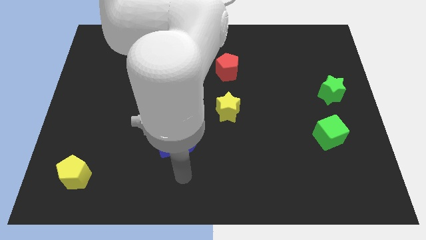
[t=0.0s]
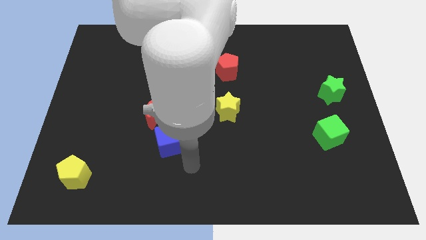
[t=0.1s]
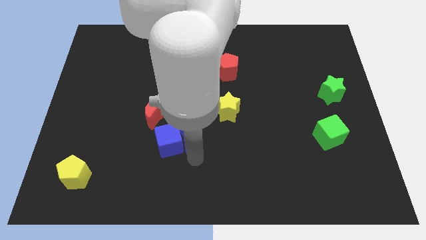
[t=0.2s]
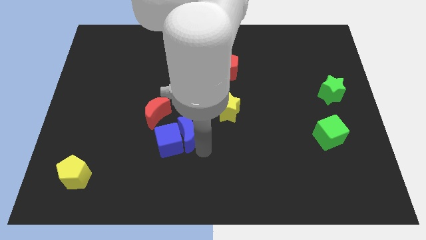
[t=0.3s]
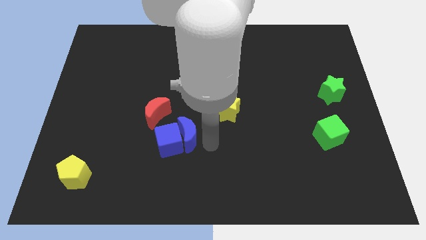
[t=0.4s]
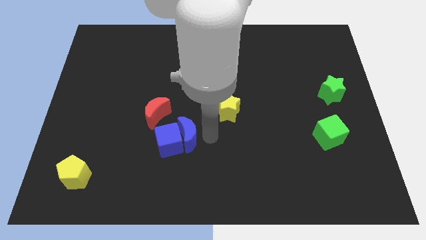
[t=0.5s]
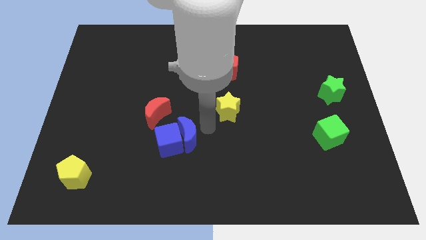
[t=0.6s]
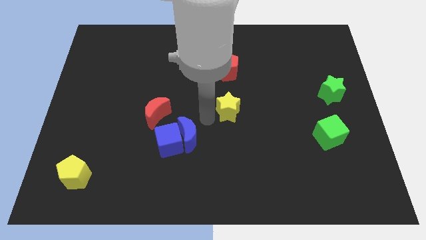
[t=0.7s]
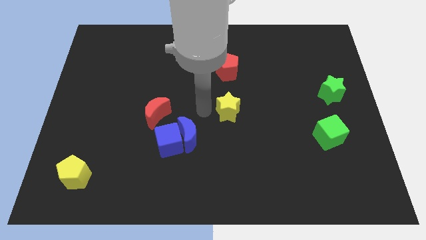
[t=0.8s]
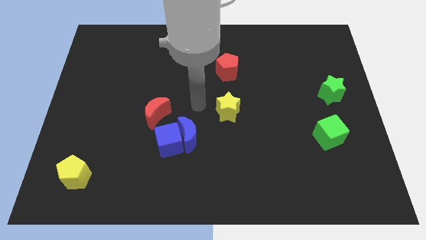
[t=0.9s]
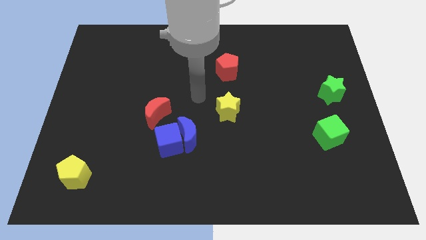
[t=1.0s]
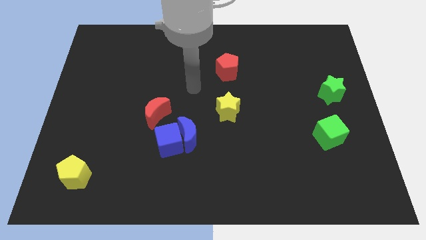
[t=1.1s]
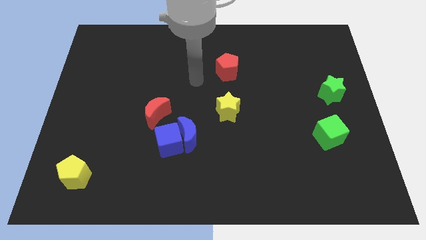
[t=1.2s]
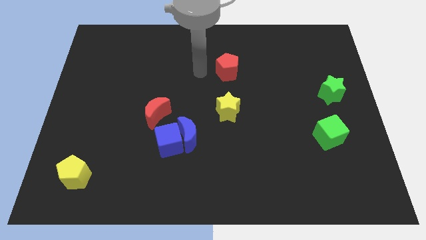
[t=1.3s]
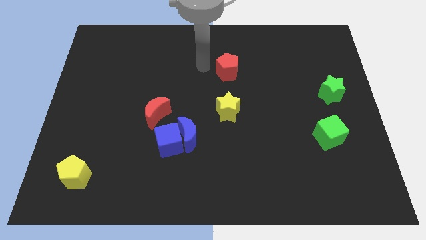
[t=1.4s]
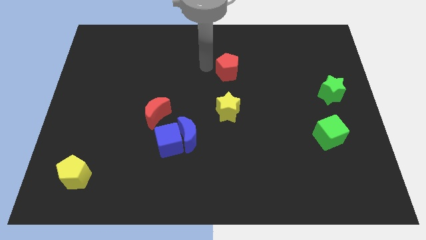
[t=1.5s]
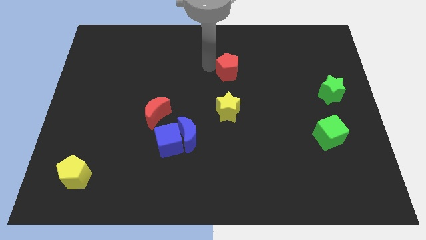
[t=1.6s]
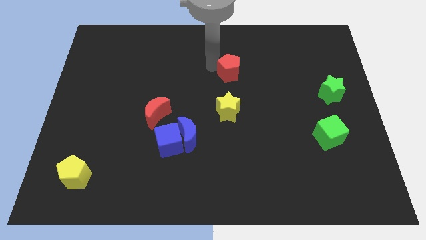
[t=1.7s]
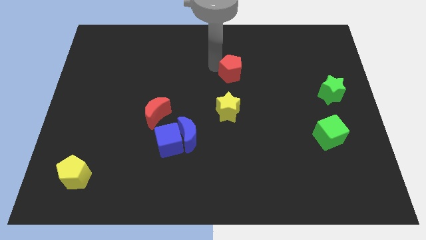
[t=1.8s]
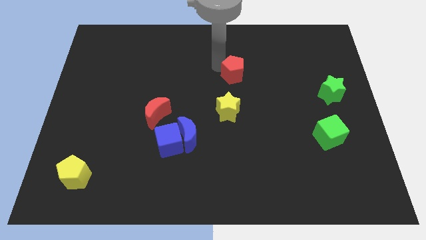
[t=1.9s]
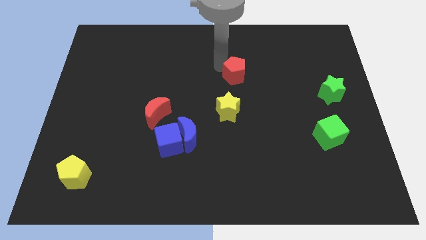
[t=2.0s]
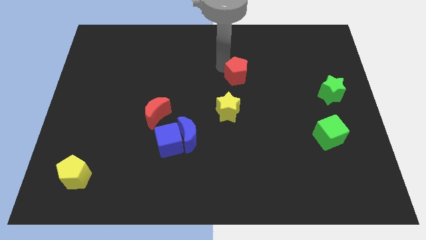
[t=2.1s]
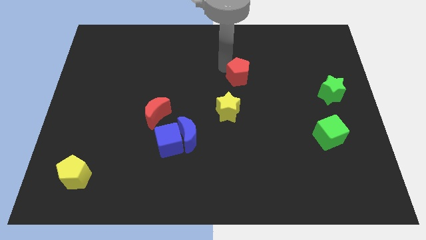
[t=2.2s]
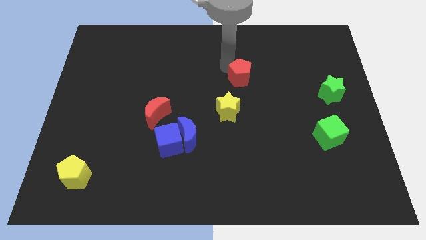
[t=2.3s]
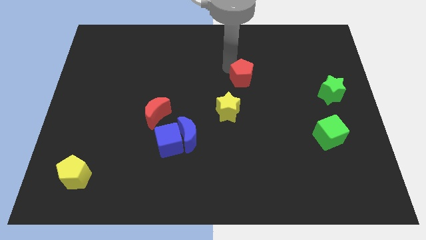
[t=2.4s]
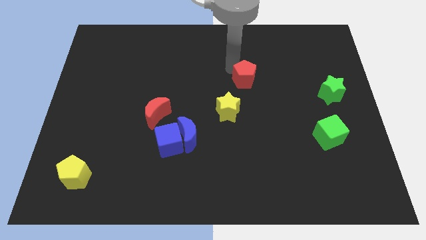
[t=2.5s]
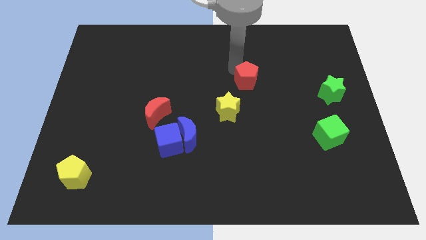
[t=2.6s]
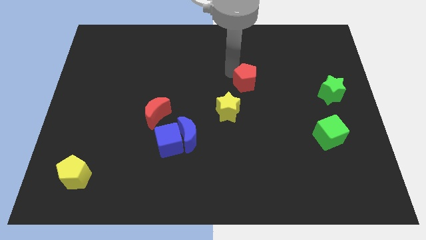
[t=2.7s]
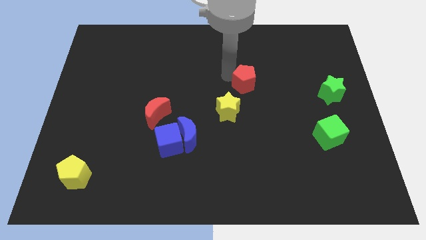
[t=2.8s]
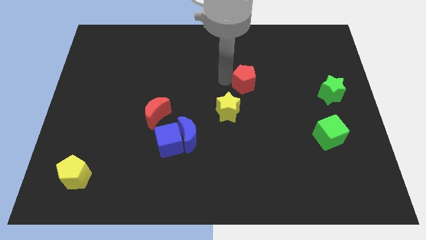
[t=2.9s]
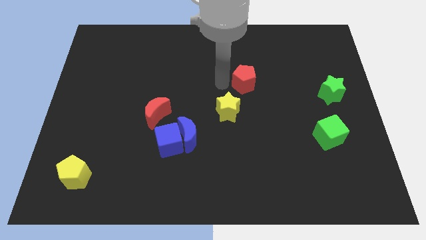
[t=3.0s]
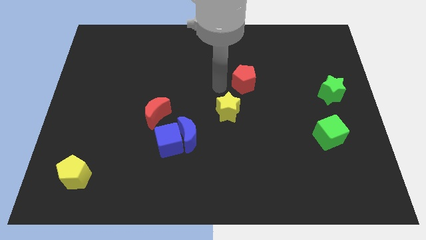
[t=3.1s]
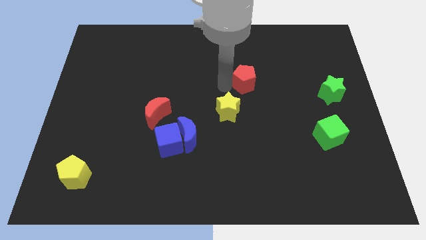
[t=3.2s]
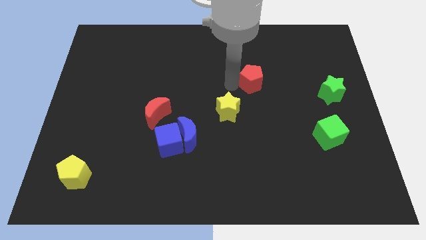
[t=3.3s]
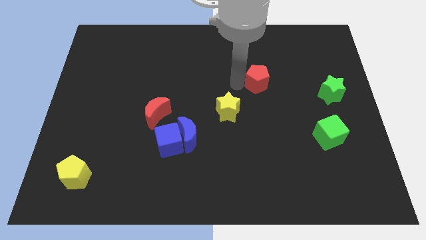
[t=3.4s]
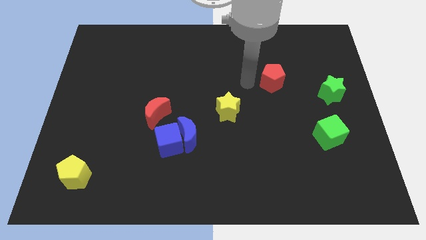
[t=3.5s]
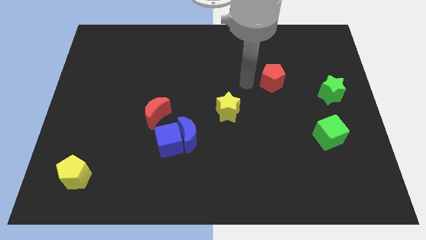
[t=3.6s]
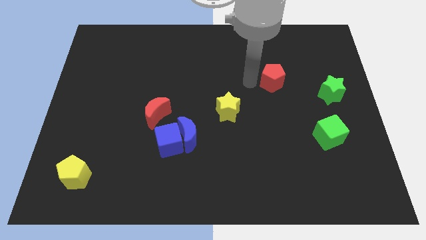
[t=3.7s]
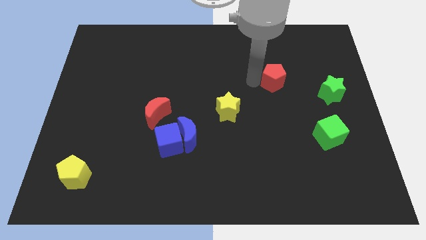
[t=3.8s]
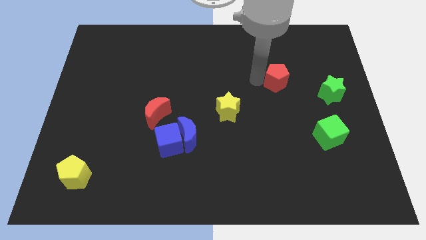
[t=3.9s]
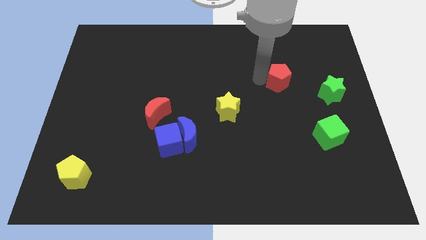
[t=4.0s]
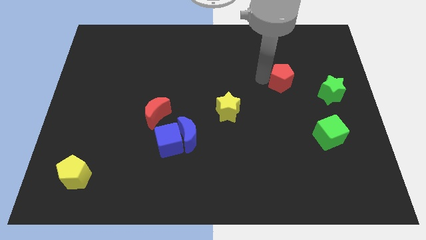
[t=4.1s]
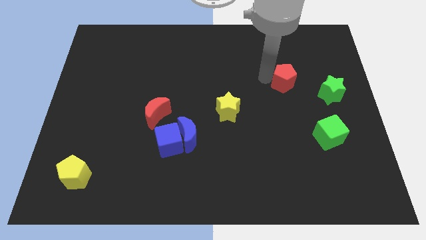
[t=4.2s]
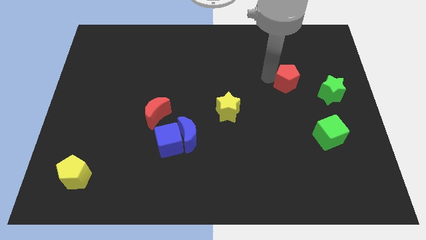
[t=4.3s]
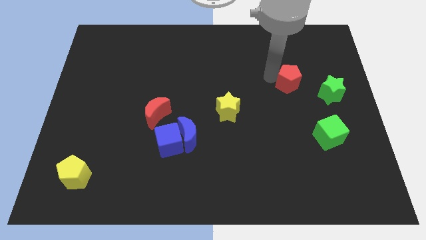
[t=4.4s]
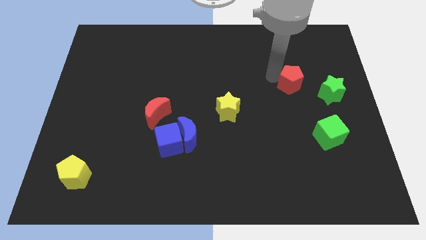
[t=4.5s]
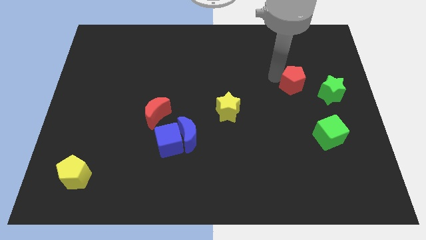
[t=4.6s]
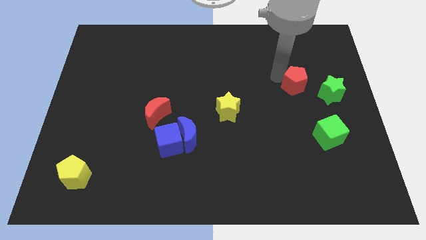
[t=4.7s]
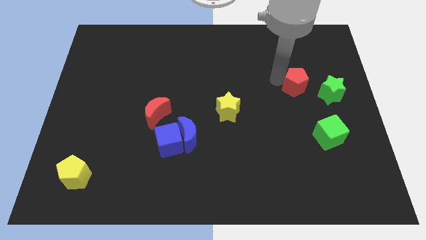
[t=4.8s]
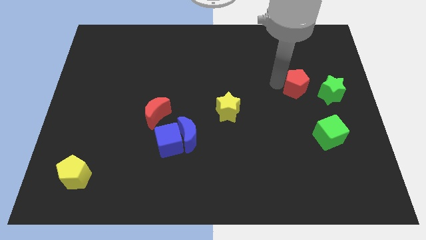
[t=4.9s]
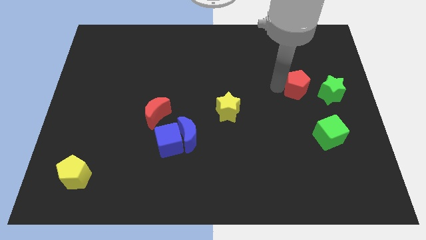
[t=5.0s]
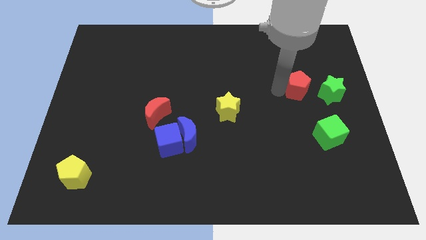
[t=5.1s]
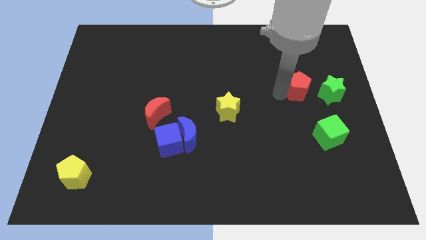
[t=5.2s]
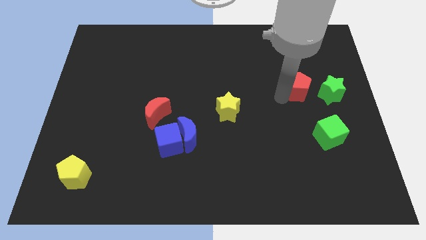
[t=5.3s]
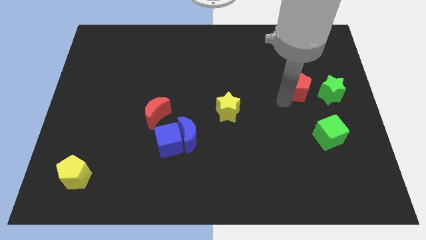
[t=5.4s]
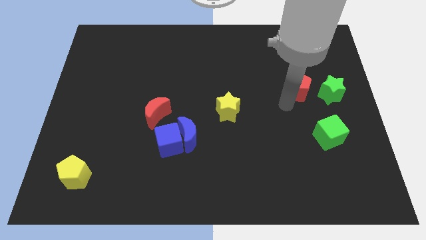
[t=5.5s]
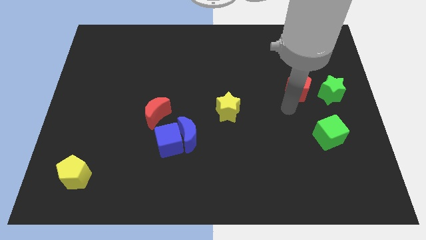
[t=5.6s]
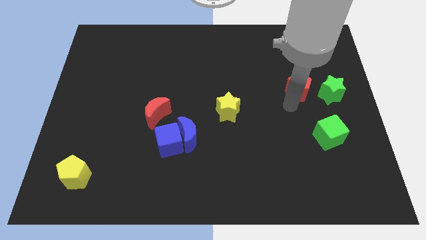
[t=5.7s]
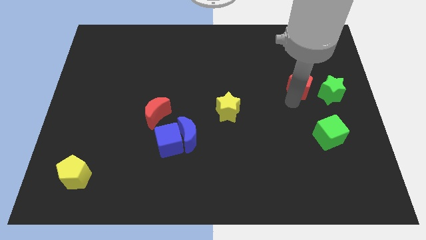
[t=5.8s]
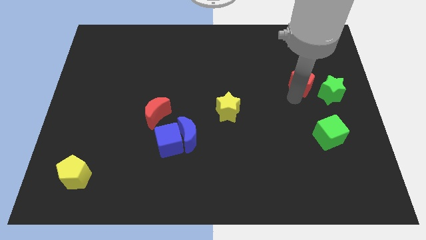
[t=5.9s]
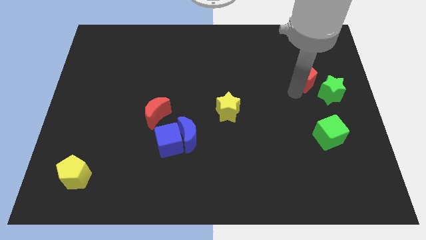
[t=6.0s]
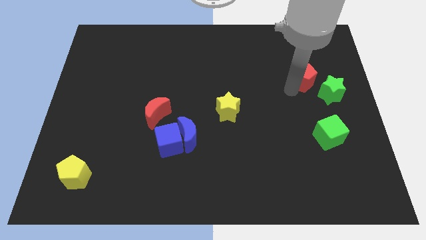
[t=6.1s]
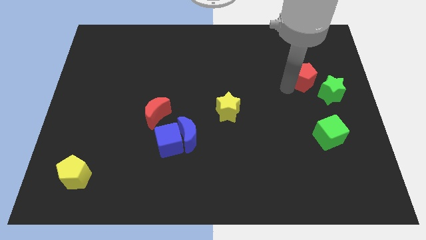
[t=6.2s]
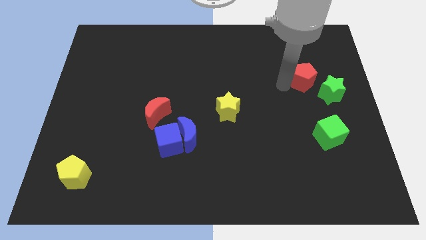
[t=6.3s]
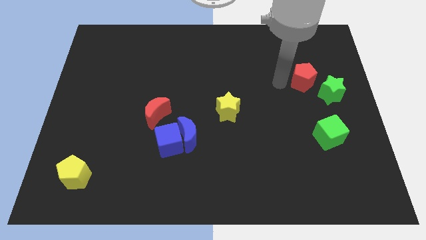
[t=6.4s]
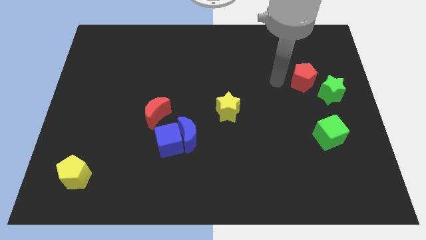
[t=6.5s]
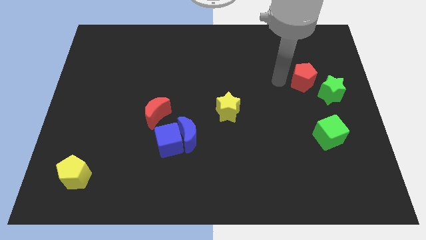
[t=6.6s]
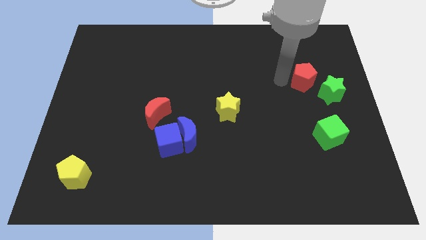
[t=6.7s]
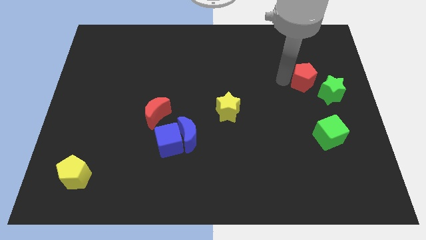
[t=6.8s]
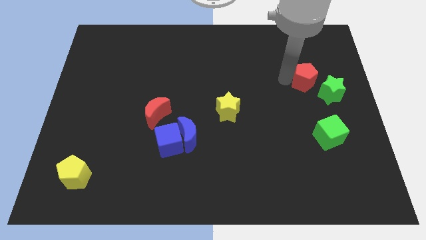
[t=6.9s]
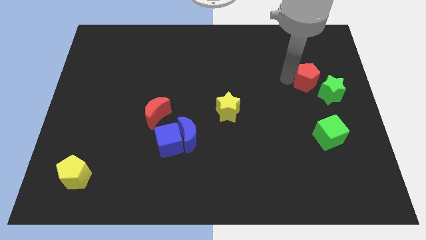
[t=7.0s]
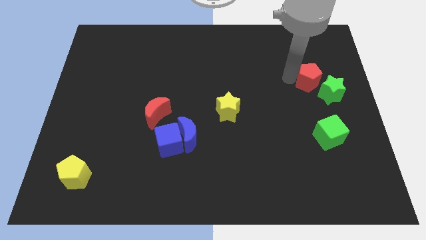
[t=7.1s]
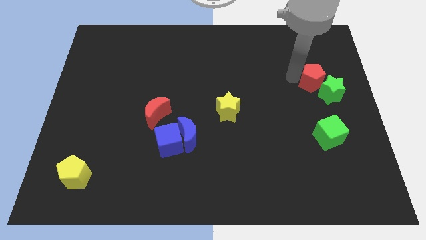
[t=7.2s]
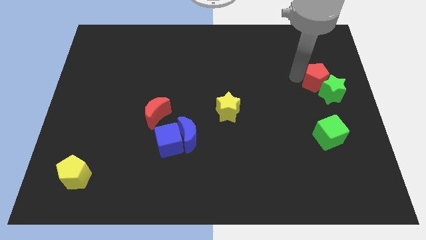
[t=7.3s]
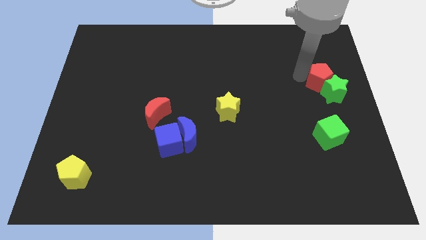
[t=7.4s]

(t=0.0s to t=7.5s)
slide the red pentagon to the center right
